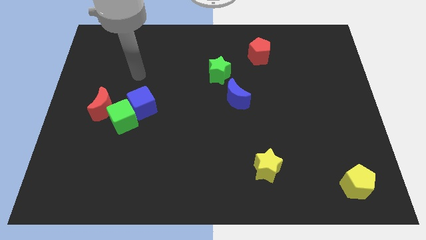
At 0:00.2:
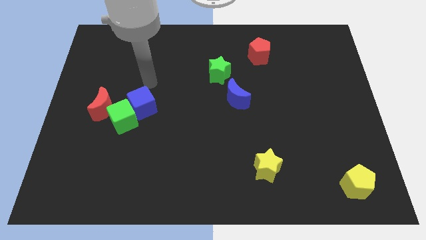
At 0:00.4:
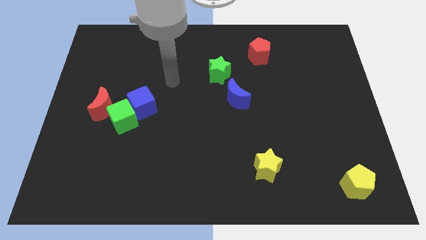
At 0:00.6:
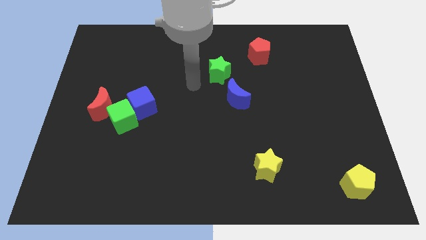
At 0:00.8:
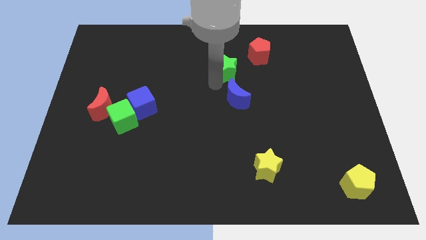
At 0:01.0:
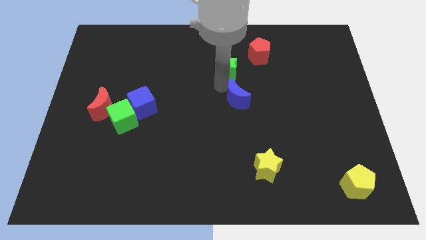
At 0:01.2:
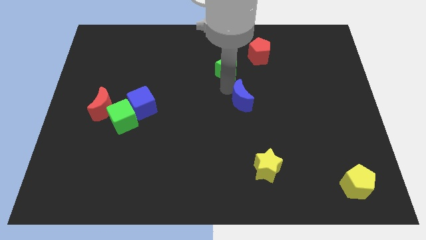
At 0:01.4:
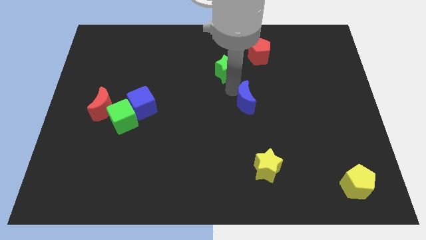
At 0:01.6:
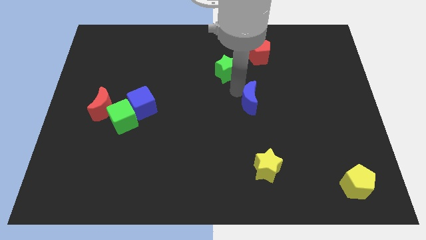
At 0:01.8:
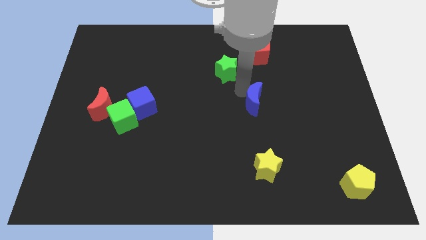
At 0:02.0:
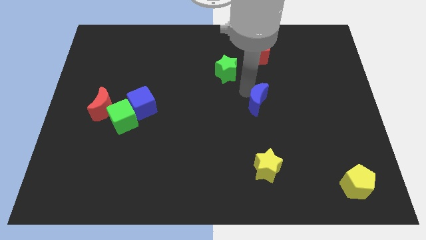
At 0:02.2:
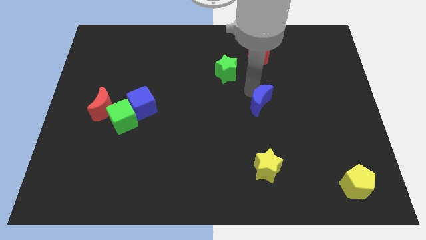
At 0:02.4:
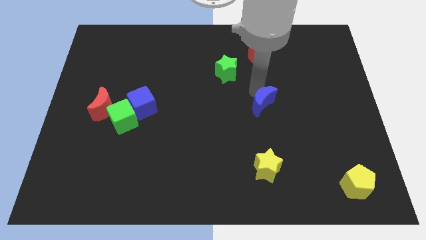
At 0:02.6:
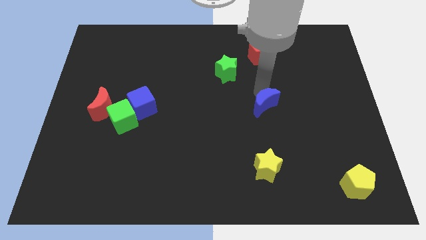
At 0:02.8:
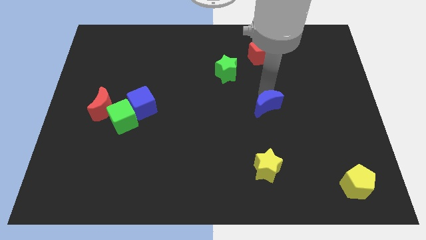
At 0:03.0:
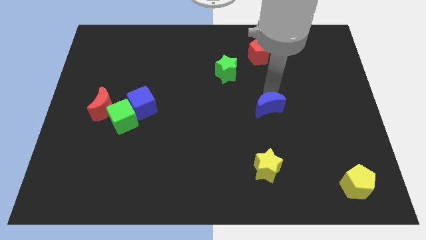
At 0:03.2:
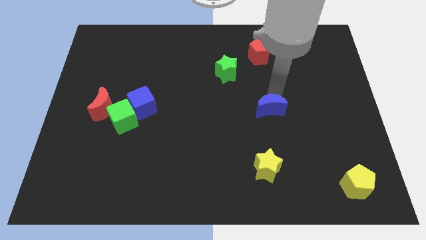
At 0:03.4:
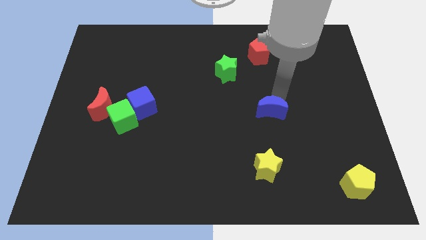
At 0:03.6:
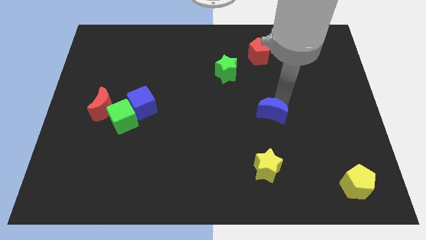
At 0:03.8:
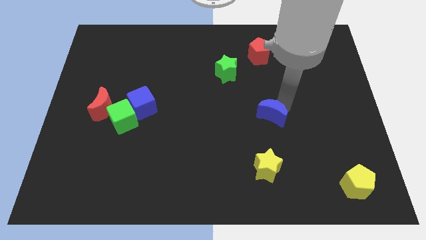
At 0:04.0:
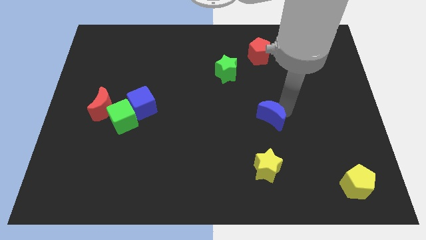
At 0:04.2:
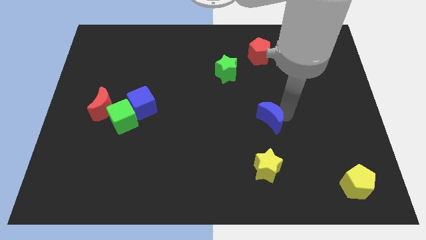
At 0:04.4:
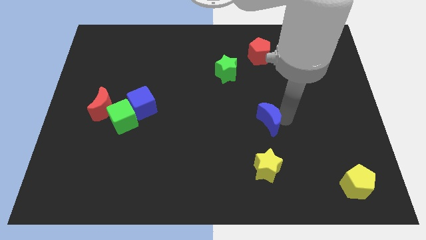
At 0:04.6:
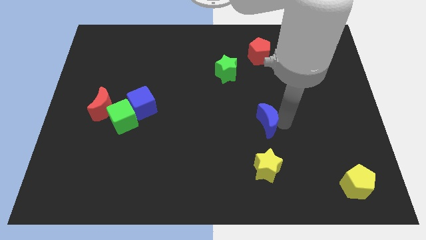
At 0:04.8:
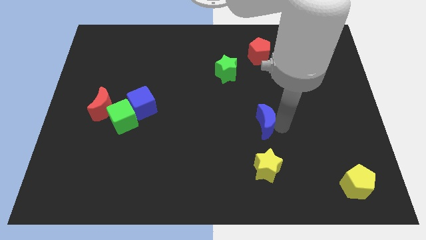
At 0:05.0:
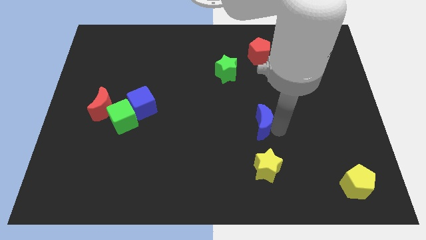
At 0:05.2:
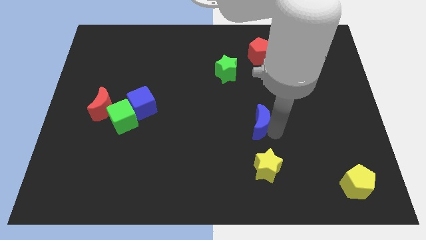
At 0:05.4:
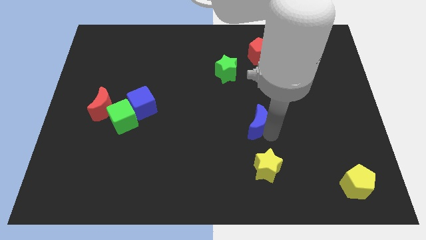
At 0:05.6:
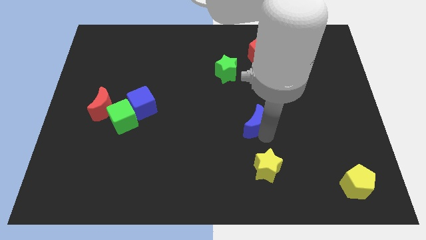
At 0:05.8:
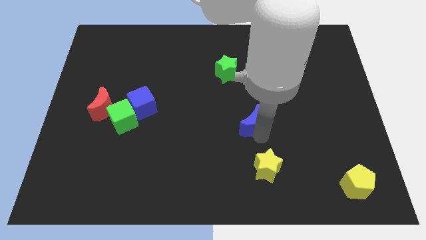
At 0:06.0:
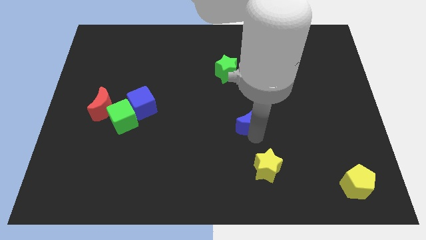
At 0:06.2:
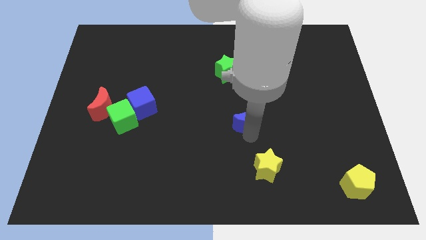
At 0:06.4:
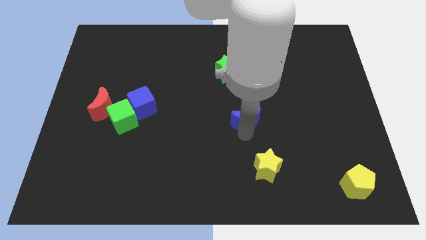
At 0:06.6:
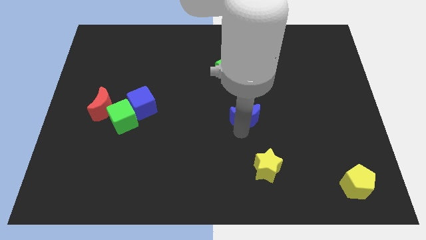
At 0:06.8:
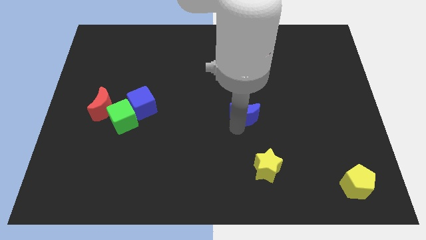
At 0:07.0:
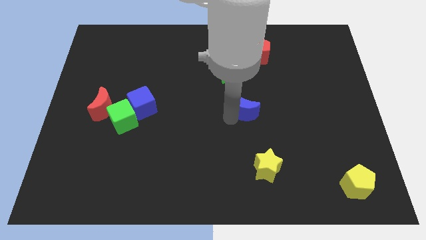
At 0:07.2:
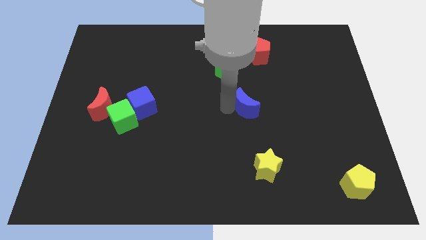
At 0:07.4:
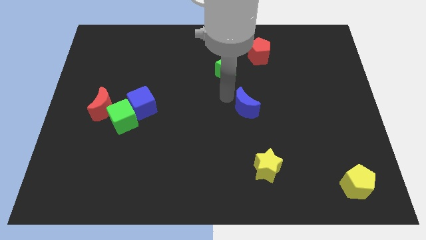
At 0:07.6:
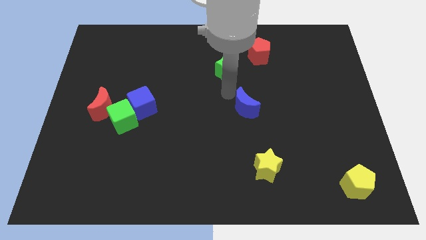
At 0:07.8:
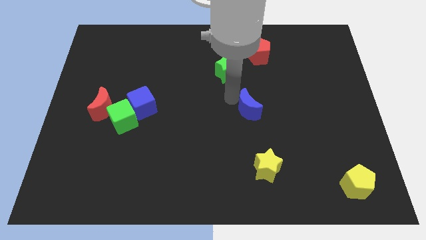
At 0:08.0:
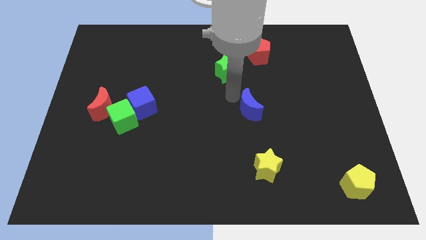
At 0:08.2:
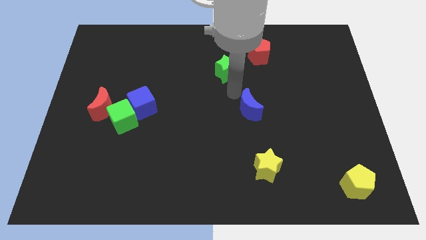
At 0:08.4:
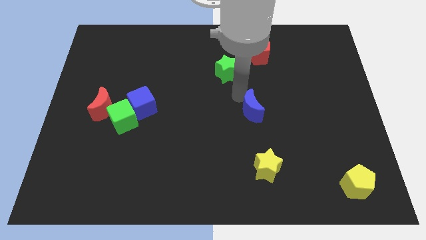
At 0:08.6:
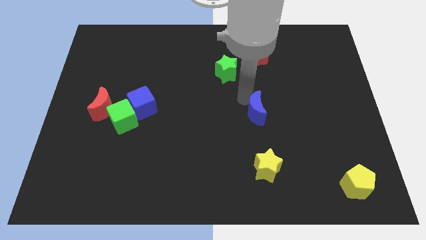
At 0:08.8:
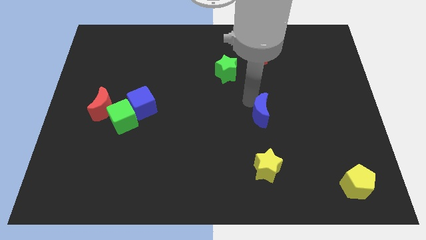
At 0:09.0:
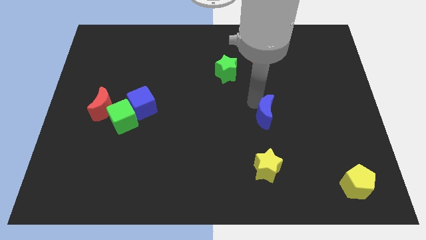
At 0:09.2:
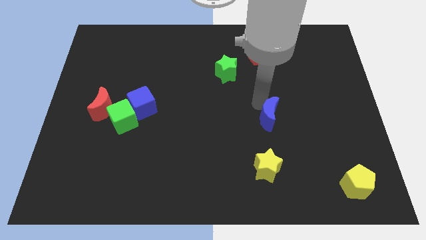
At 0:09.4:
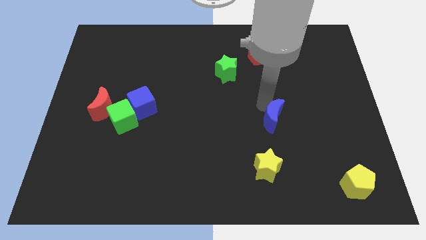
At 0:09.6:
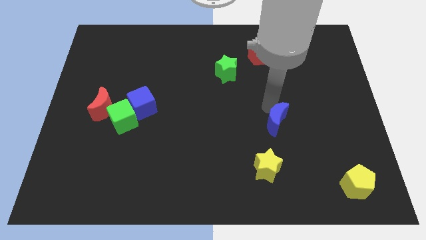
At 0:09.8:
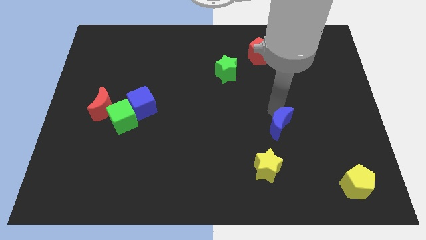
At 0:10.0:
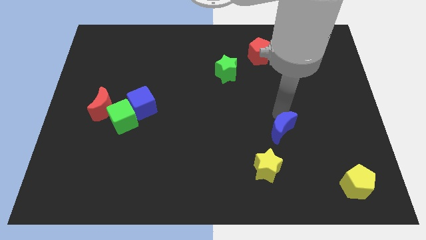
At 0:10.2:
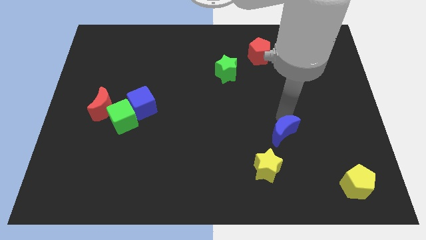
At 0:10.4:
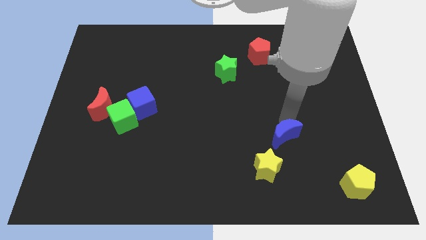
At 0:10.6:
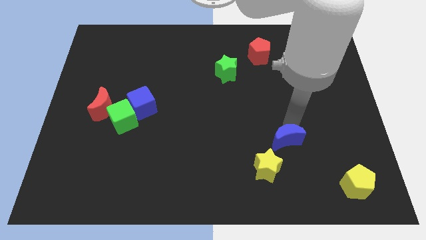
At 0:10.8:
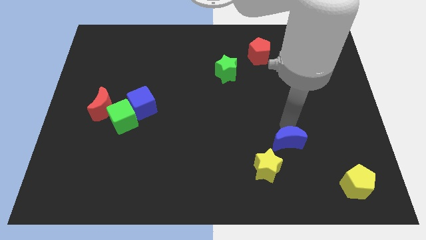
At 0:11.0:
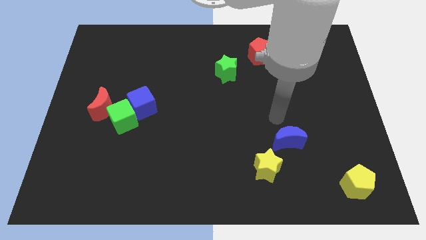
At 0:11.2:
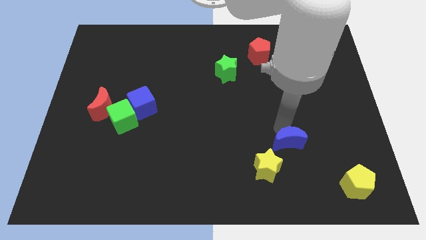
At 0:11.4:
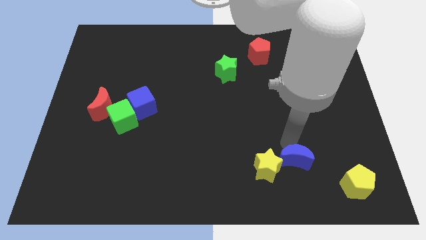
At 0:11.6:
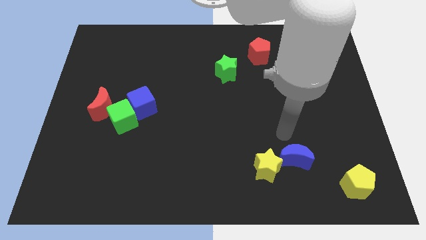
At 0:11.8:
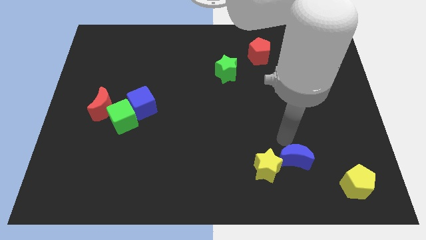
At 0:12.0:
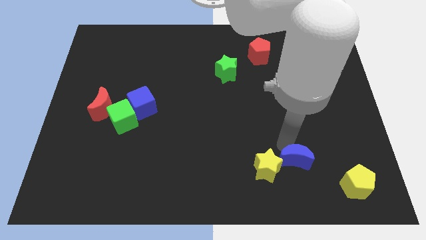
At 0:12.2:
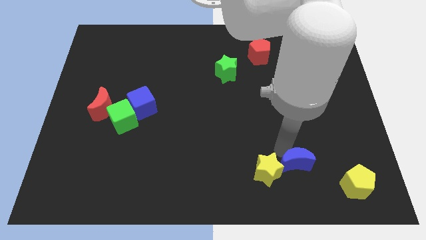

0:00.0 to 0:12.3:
slide the blue moon just left of the yellow pentagon
